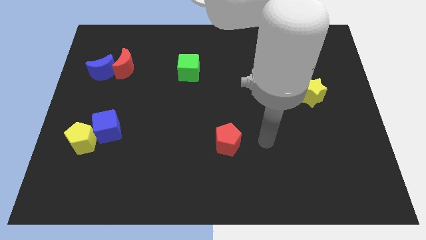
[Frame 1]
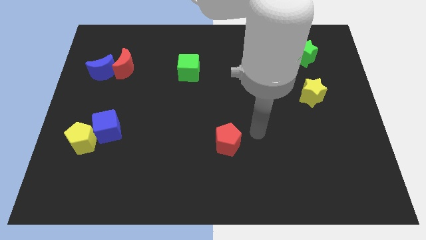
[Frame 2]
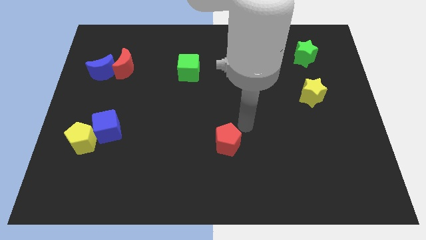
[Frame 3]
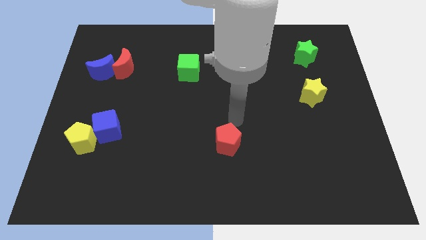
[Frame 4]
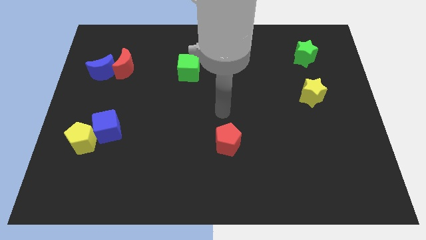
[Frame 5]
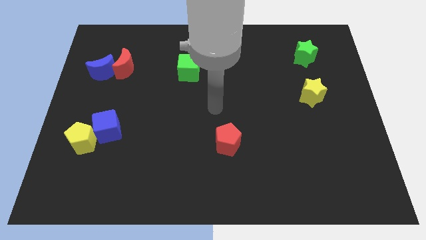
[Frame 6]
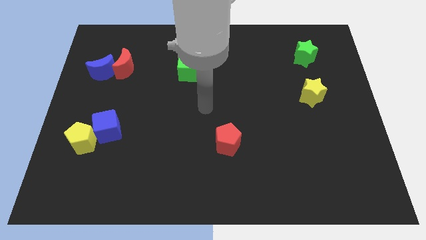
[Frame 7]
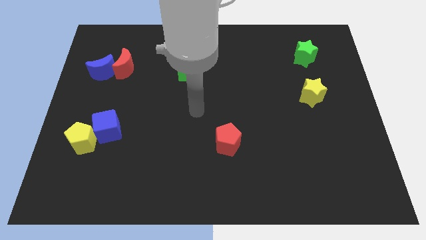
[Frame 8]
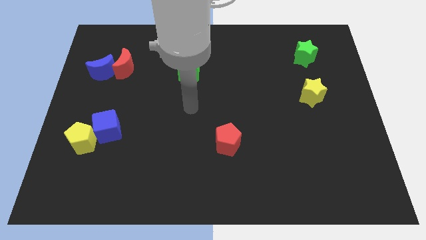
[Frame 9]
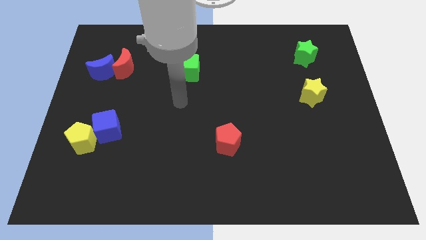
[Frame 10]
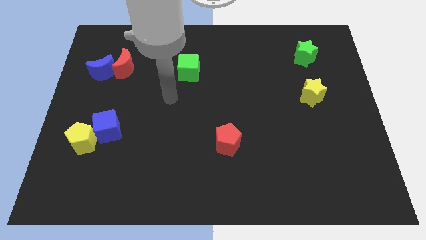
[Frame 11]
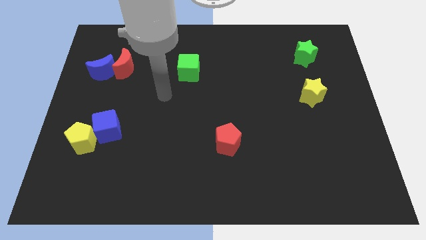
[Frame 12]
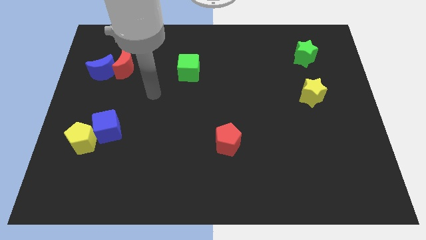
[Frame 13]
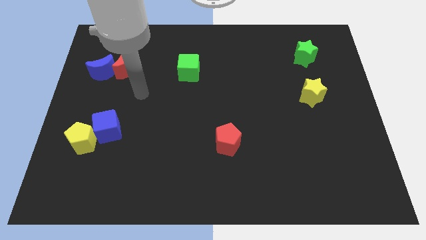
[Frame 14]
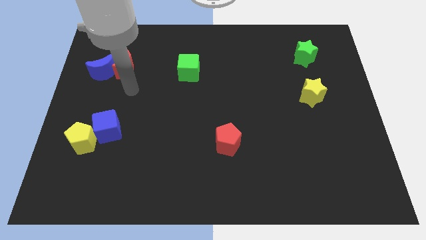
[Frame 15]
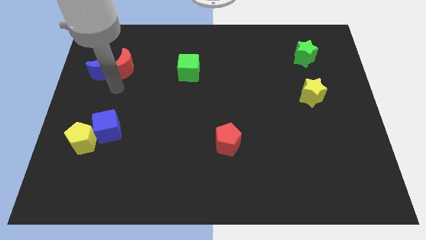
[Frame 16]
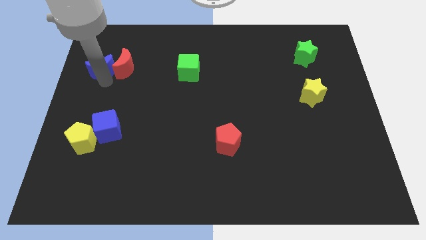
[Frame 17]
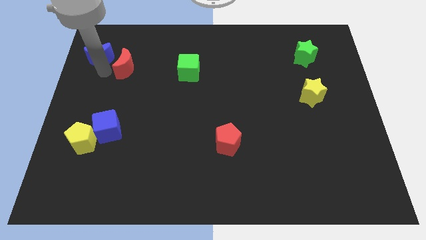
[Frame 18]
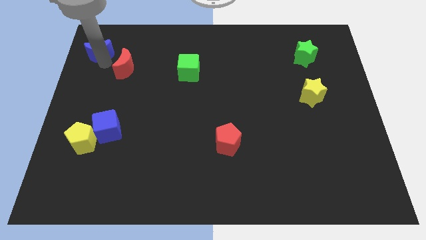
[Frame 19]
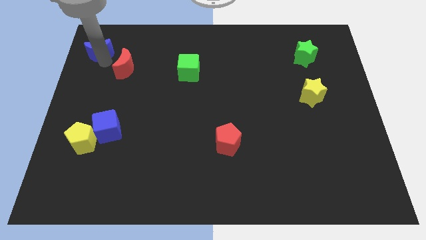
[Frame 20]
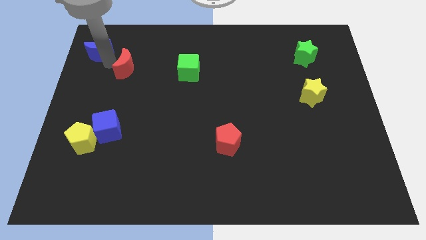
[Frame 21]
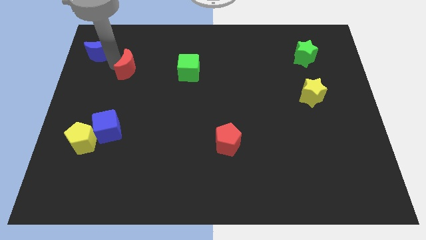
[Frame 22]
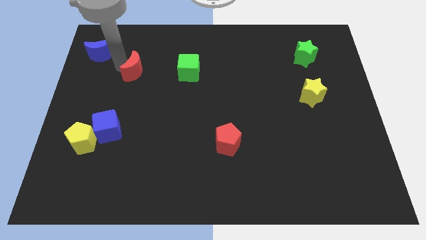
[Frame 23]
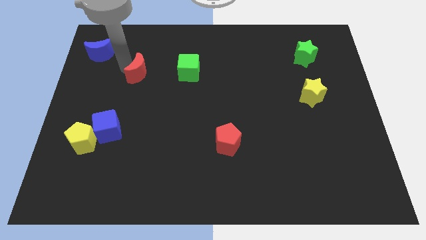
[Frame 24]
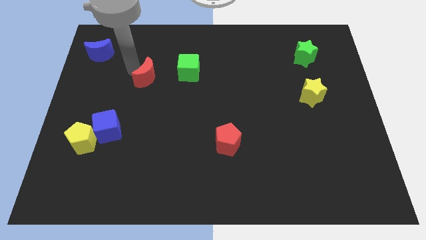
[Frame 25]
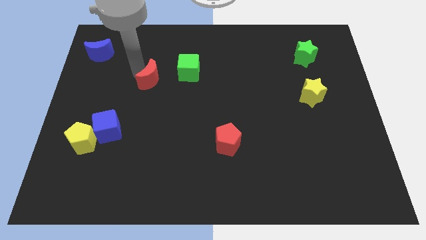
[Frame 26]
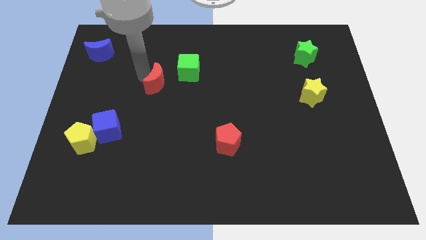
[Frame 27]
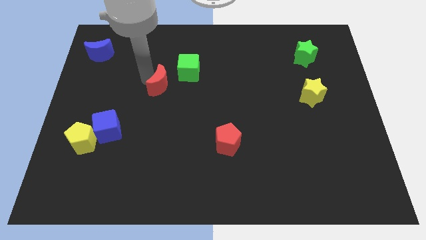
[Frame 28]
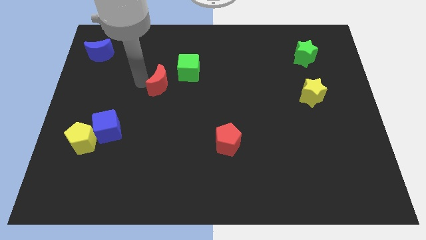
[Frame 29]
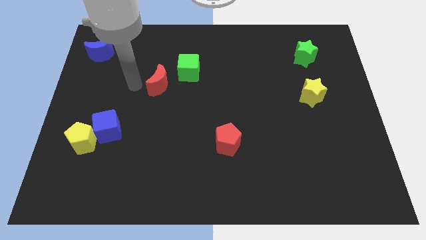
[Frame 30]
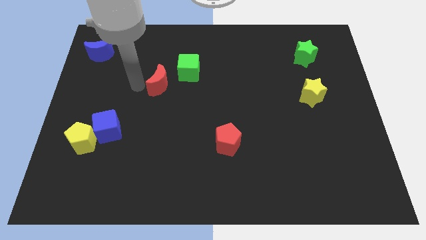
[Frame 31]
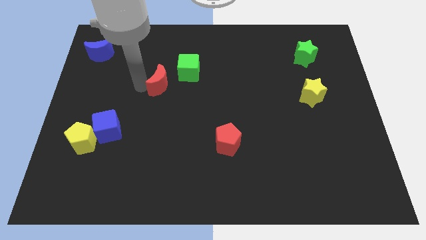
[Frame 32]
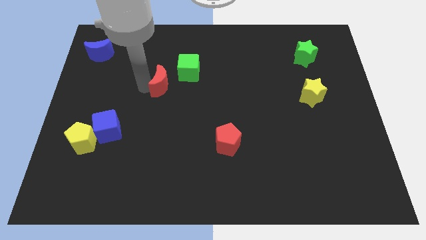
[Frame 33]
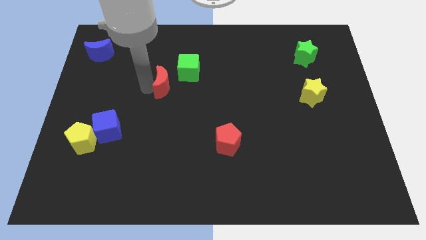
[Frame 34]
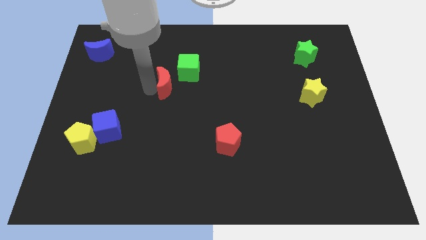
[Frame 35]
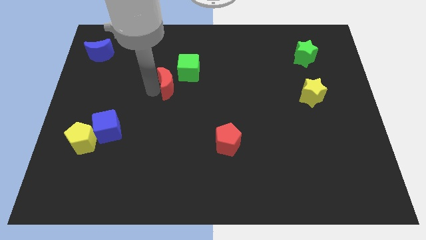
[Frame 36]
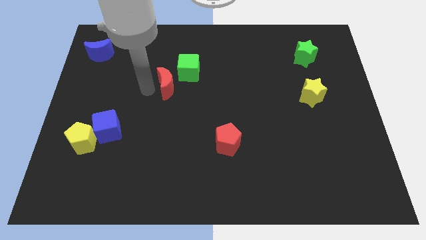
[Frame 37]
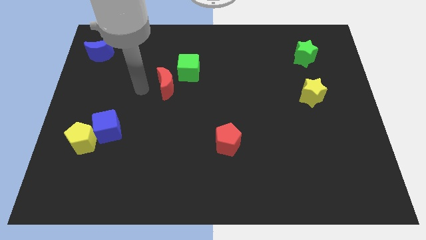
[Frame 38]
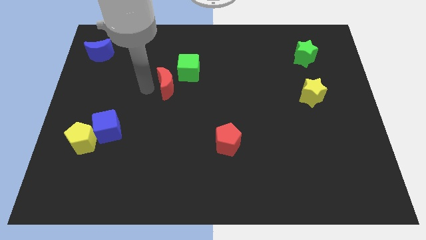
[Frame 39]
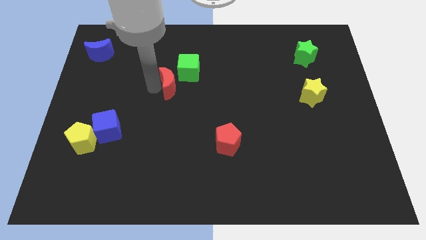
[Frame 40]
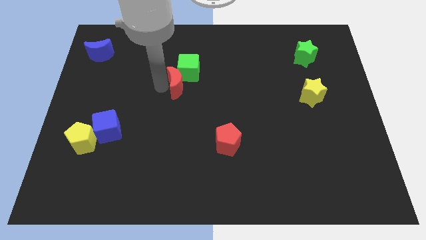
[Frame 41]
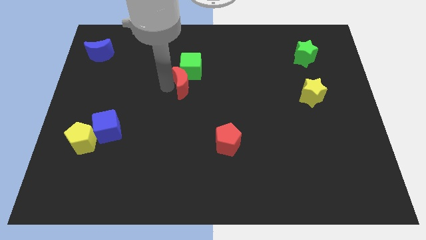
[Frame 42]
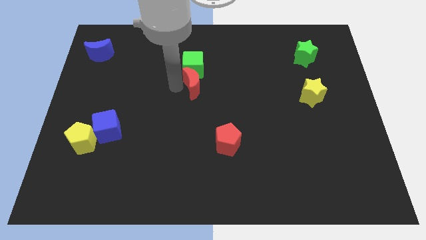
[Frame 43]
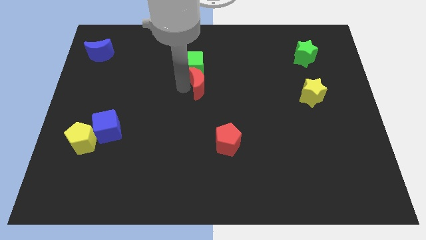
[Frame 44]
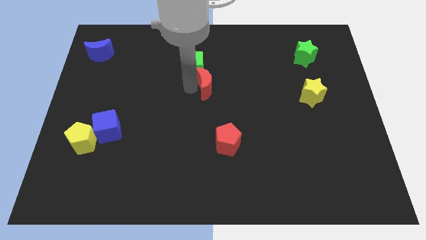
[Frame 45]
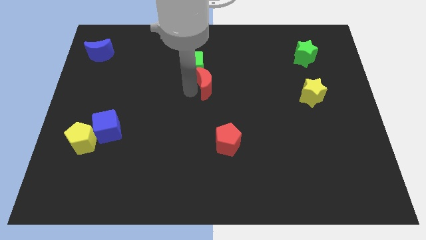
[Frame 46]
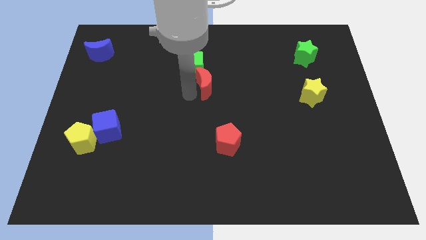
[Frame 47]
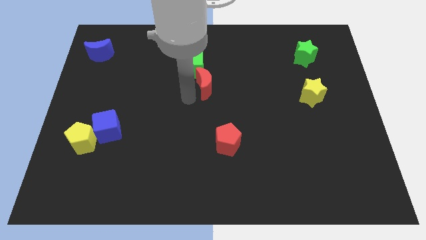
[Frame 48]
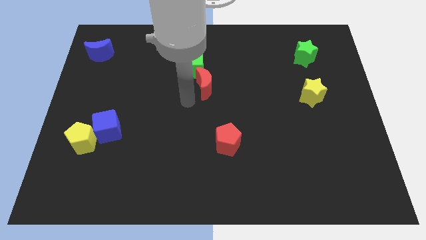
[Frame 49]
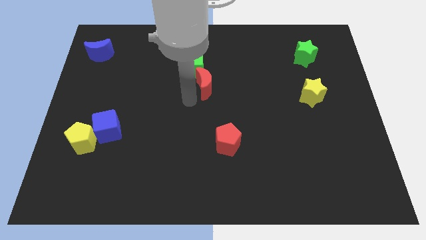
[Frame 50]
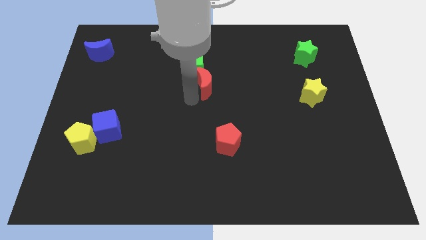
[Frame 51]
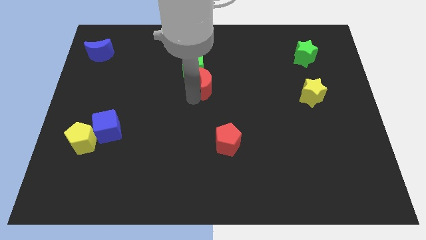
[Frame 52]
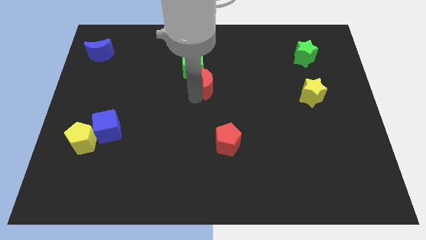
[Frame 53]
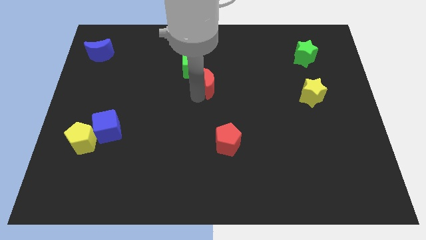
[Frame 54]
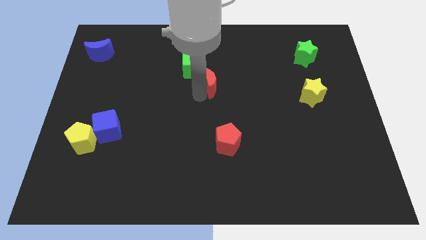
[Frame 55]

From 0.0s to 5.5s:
slide the red moon right

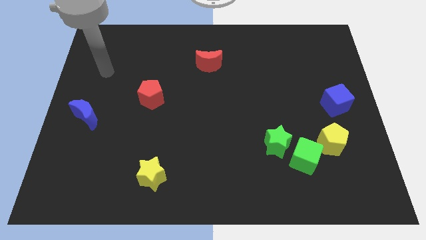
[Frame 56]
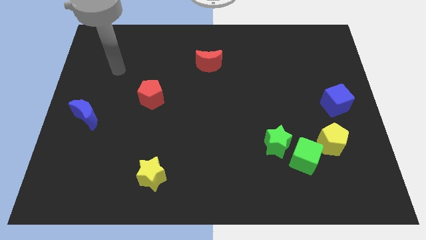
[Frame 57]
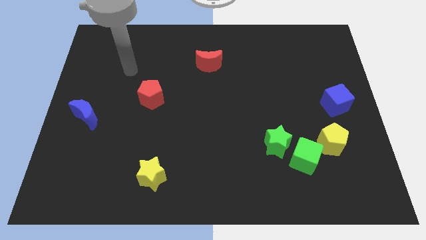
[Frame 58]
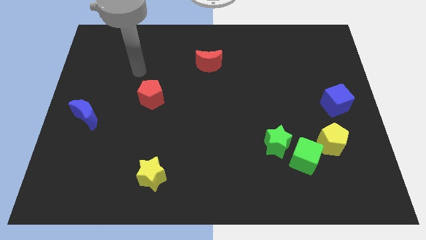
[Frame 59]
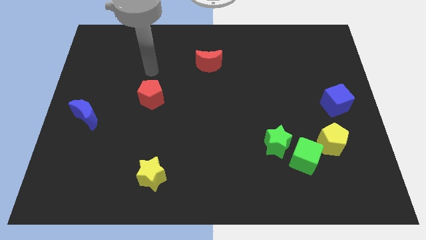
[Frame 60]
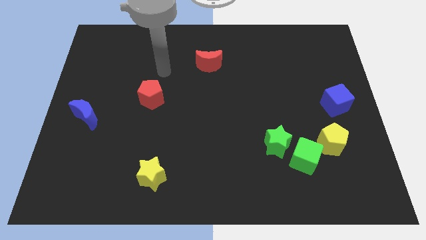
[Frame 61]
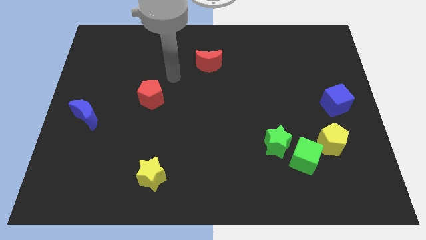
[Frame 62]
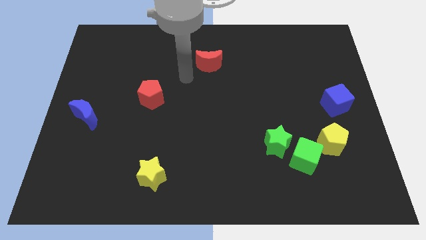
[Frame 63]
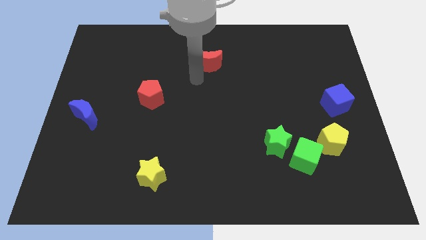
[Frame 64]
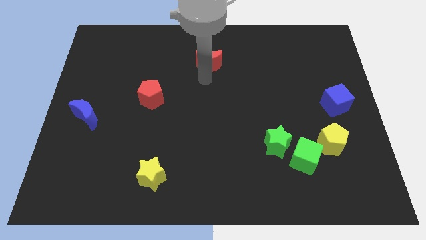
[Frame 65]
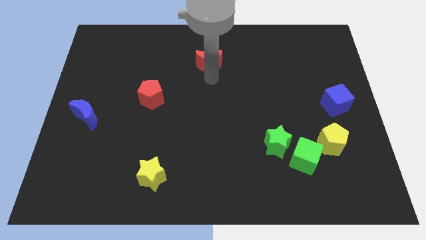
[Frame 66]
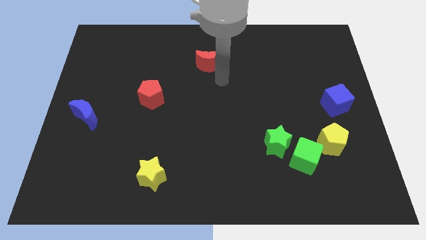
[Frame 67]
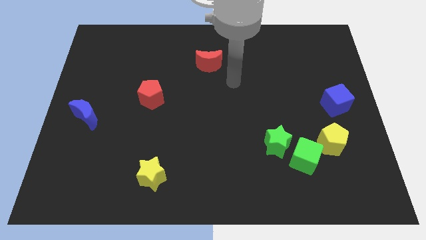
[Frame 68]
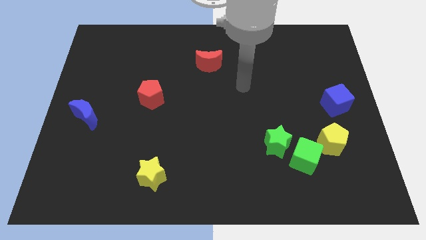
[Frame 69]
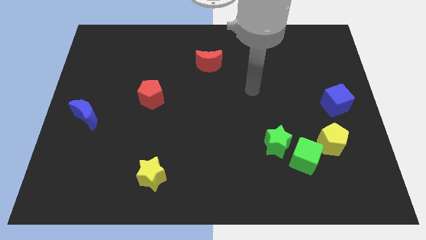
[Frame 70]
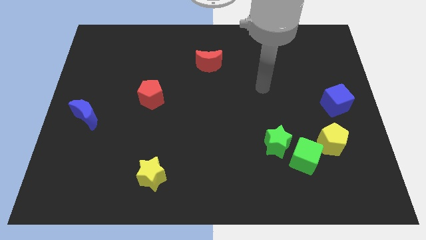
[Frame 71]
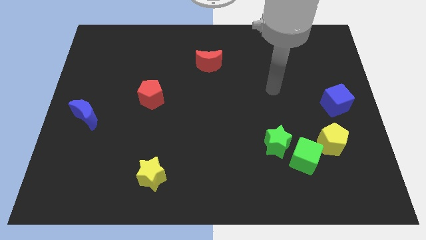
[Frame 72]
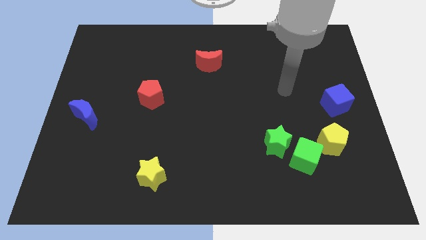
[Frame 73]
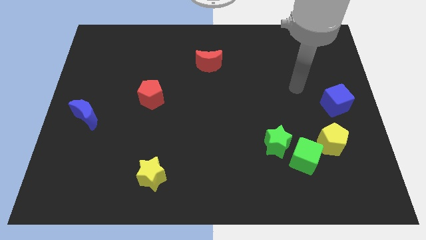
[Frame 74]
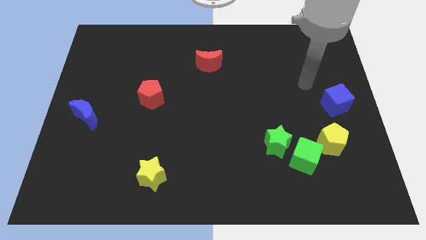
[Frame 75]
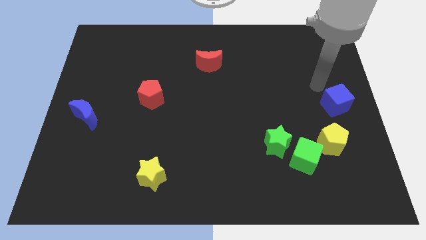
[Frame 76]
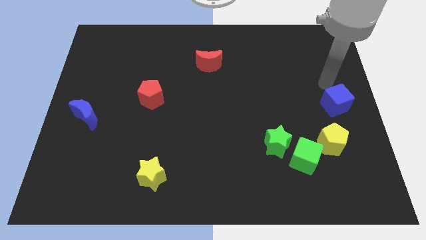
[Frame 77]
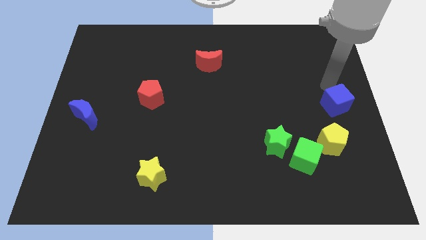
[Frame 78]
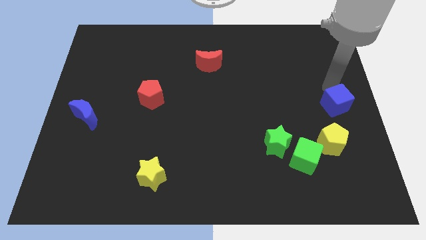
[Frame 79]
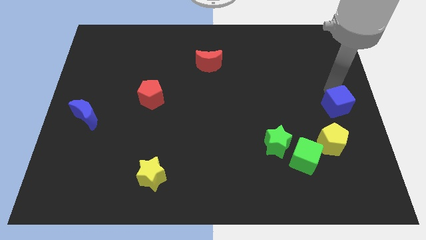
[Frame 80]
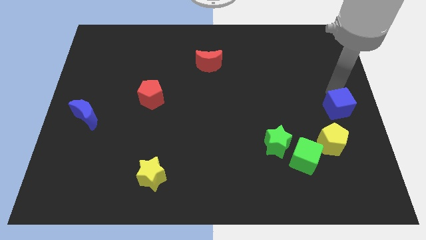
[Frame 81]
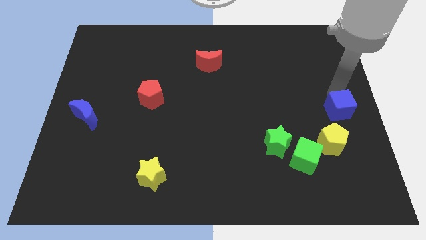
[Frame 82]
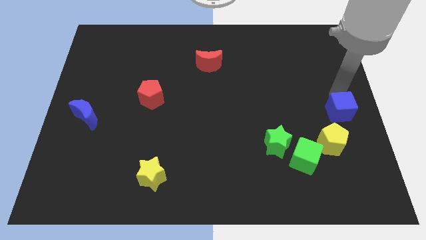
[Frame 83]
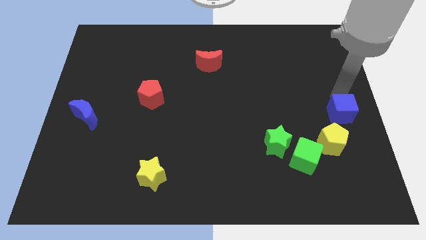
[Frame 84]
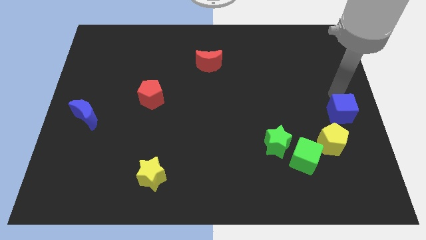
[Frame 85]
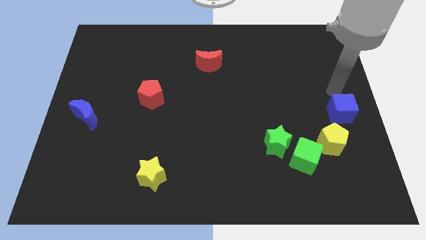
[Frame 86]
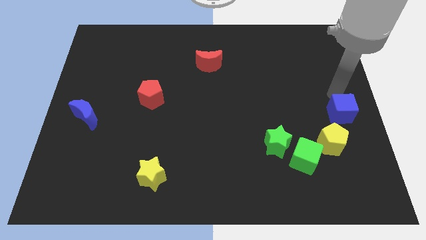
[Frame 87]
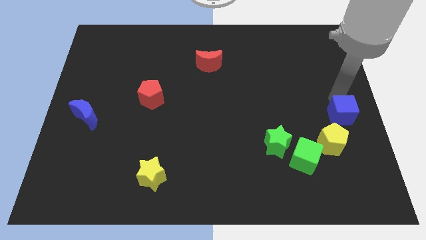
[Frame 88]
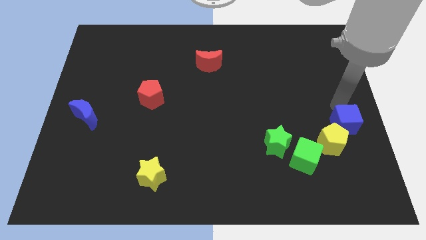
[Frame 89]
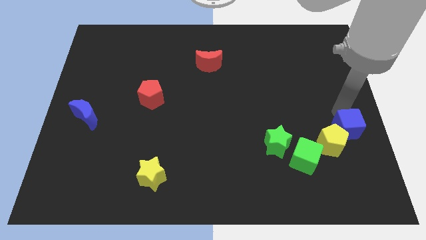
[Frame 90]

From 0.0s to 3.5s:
slightly push the blue cube down
